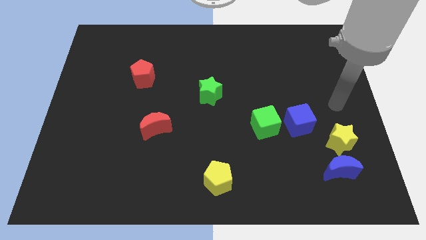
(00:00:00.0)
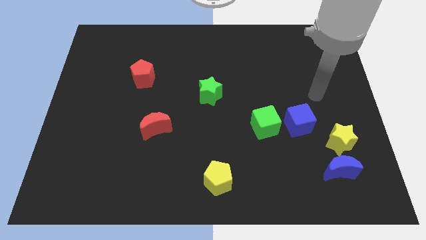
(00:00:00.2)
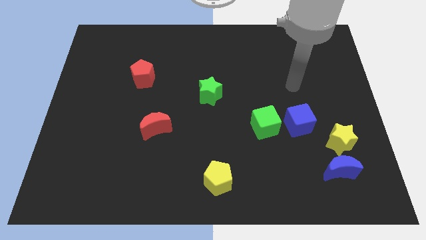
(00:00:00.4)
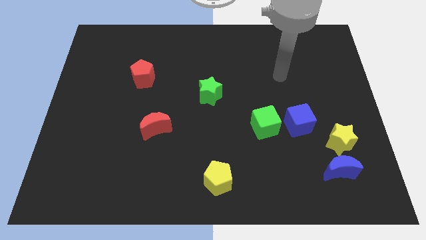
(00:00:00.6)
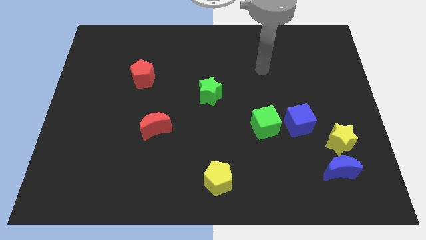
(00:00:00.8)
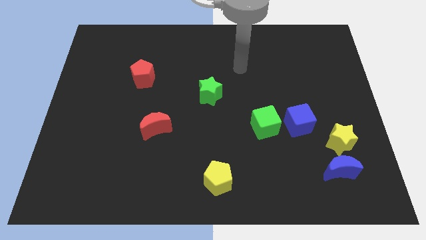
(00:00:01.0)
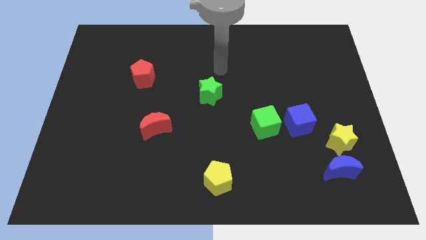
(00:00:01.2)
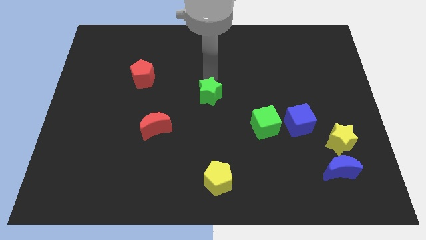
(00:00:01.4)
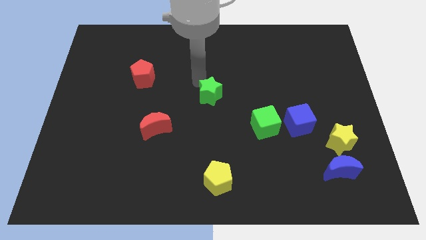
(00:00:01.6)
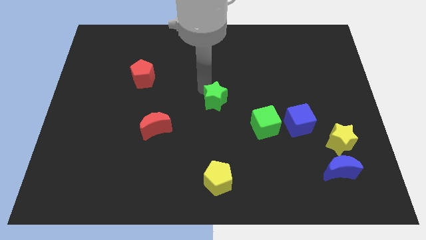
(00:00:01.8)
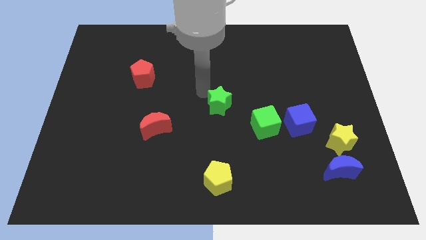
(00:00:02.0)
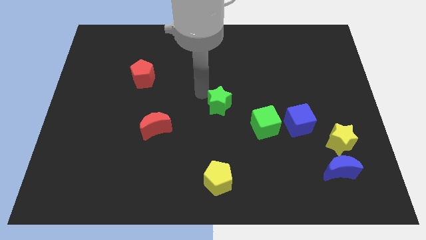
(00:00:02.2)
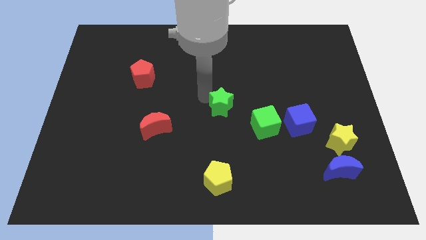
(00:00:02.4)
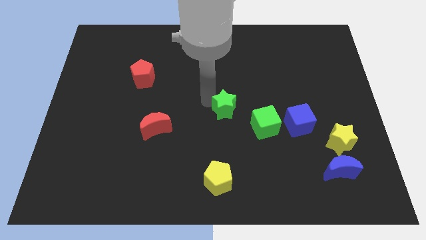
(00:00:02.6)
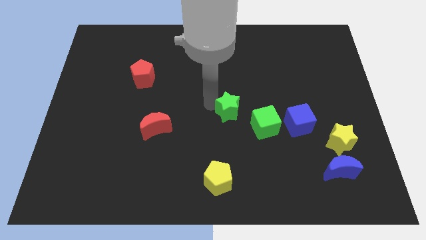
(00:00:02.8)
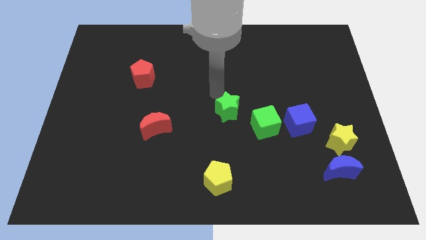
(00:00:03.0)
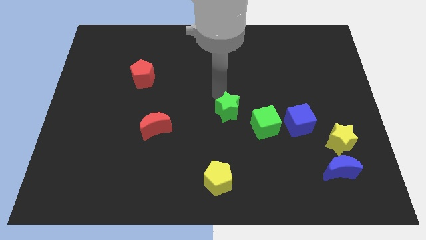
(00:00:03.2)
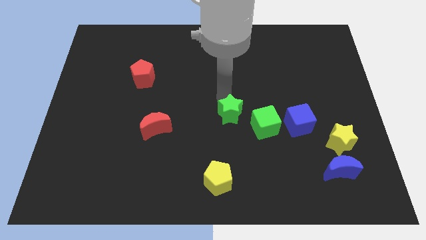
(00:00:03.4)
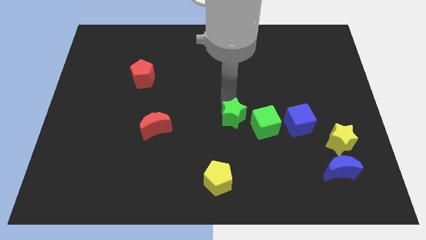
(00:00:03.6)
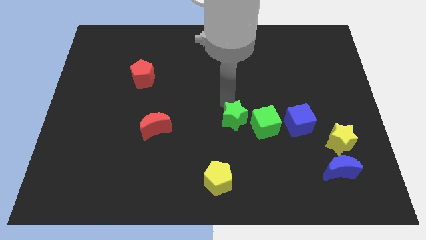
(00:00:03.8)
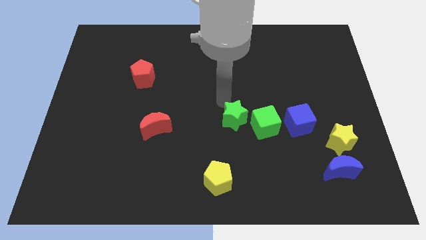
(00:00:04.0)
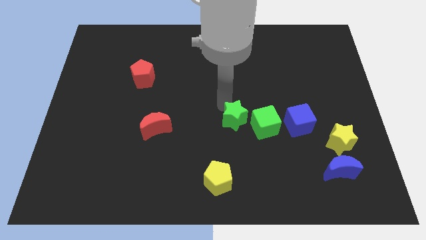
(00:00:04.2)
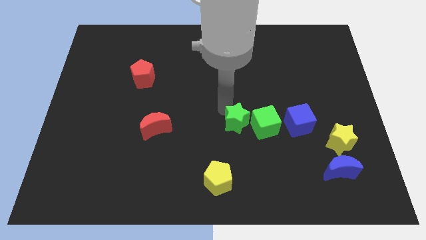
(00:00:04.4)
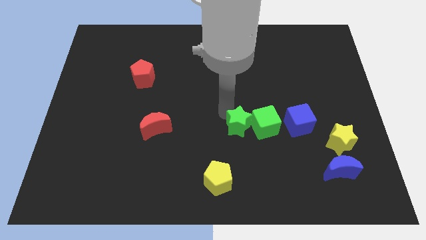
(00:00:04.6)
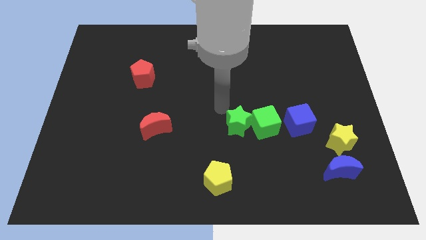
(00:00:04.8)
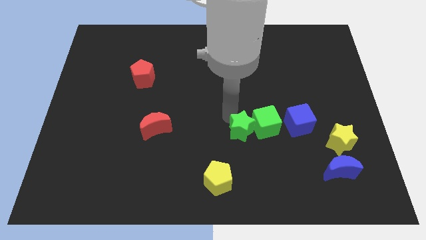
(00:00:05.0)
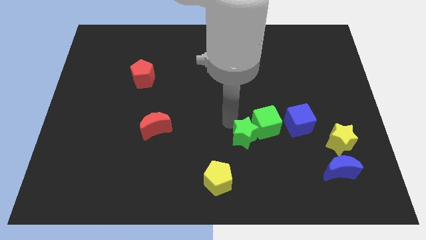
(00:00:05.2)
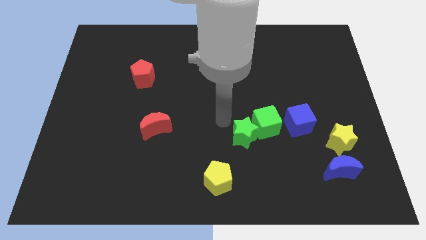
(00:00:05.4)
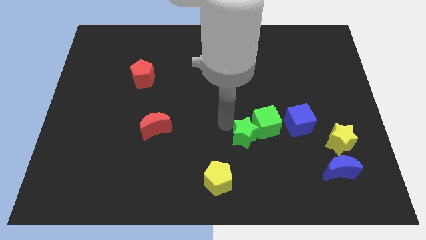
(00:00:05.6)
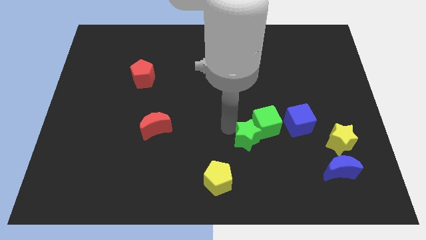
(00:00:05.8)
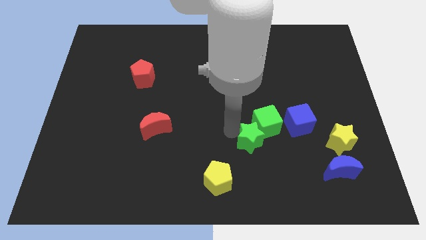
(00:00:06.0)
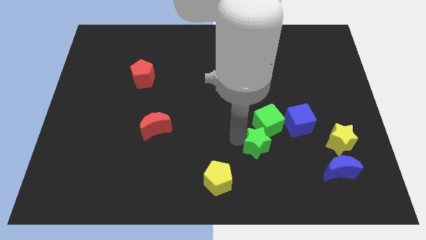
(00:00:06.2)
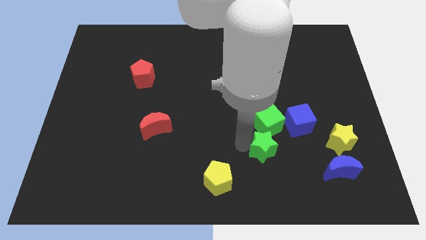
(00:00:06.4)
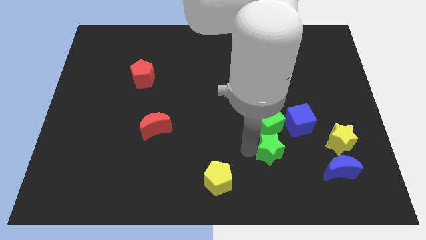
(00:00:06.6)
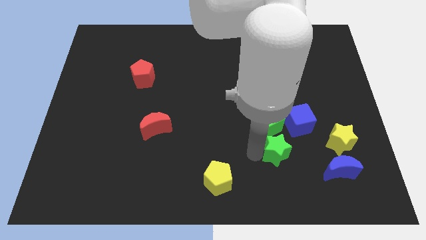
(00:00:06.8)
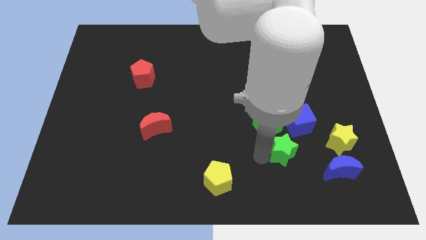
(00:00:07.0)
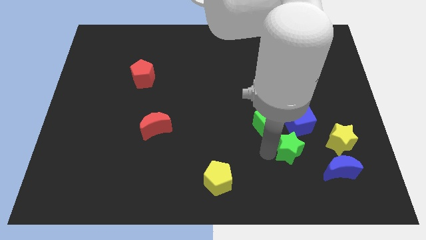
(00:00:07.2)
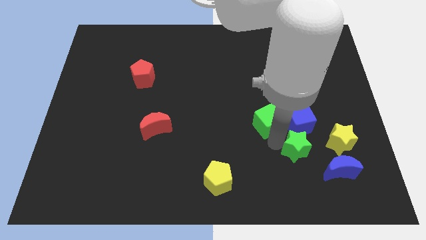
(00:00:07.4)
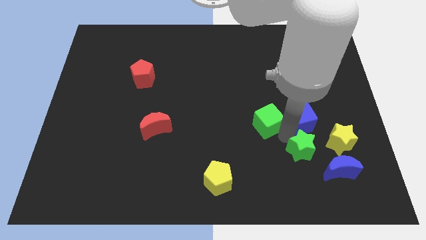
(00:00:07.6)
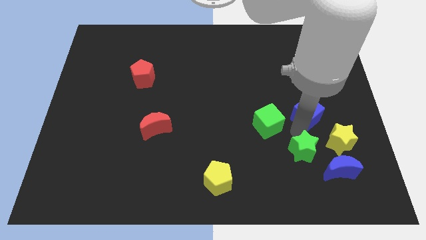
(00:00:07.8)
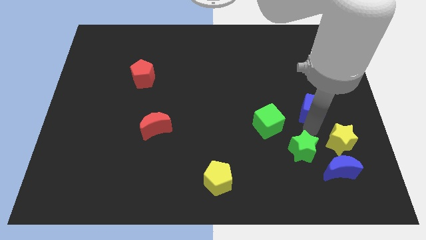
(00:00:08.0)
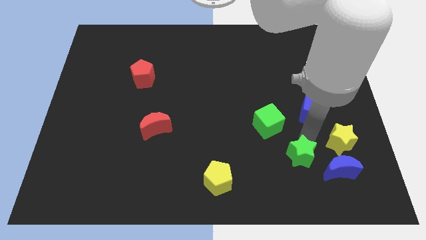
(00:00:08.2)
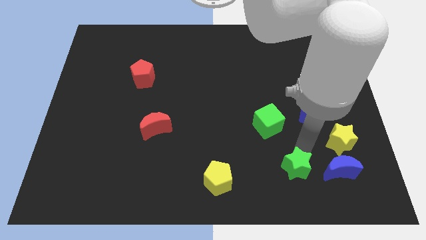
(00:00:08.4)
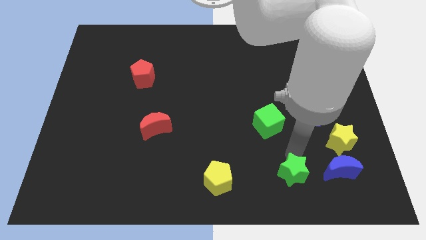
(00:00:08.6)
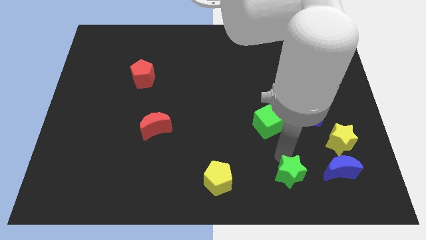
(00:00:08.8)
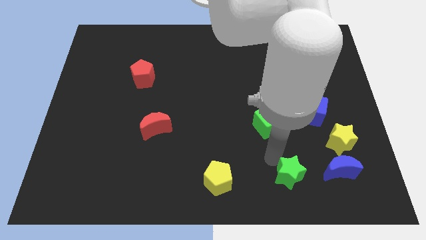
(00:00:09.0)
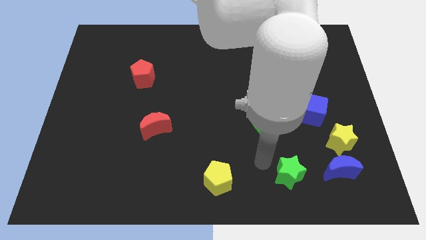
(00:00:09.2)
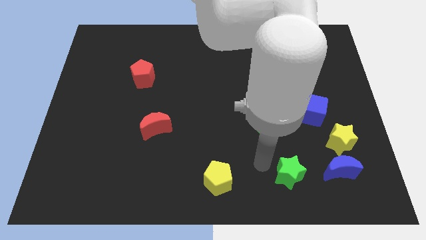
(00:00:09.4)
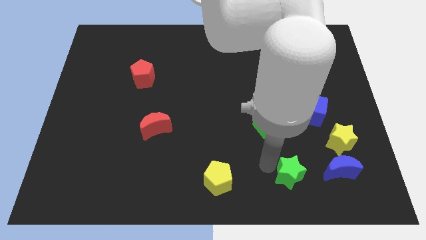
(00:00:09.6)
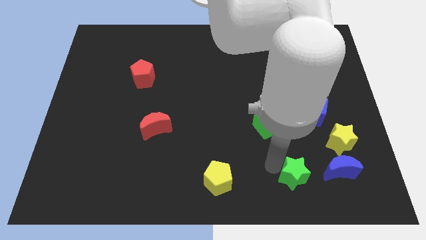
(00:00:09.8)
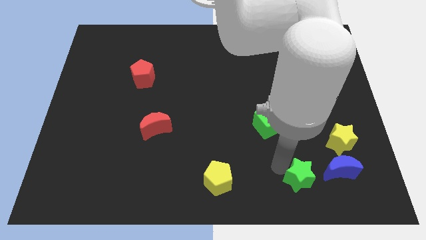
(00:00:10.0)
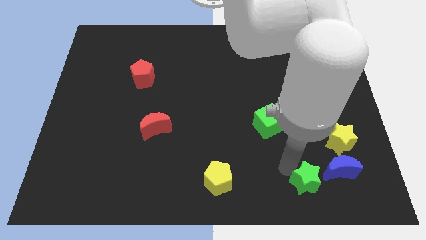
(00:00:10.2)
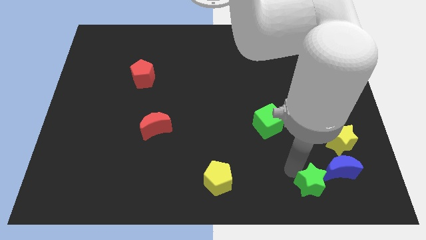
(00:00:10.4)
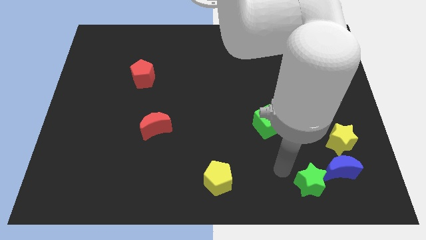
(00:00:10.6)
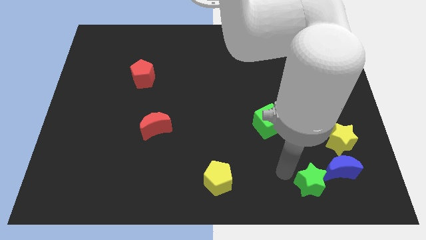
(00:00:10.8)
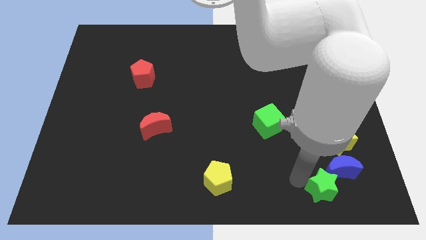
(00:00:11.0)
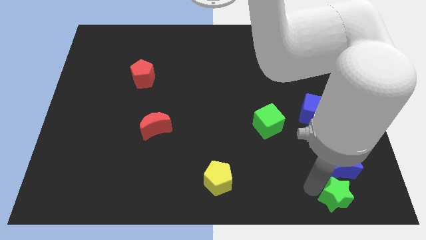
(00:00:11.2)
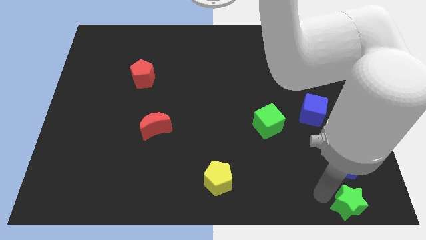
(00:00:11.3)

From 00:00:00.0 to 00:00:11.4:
push the green star to the bottom right
